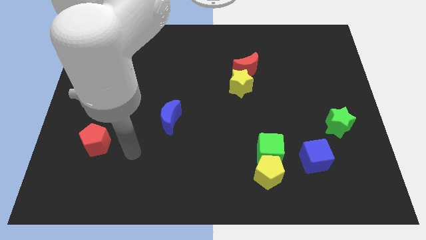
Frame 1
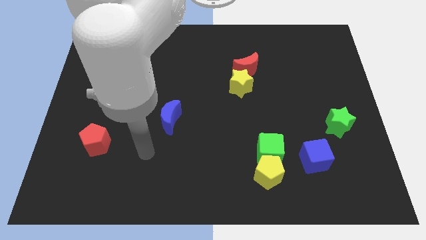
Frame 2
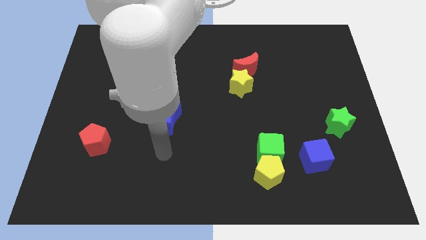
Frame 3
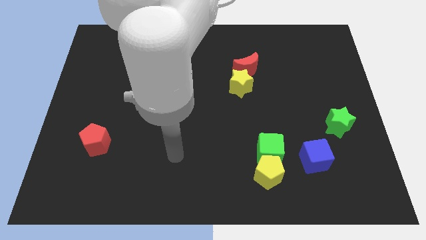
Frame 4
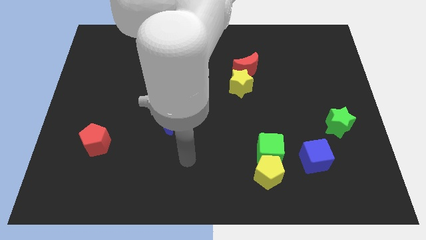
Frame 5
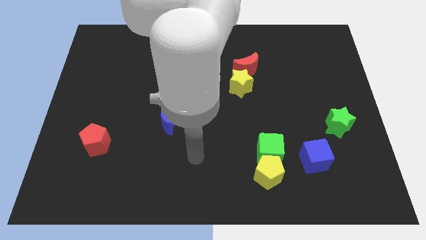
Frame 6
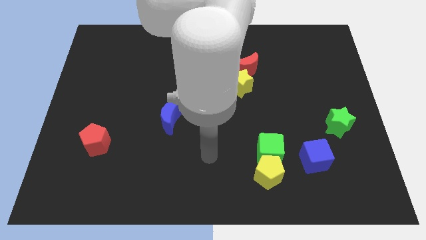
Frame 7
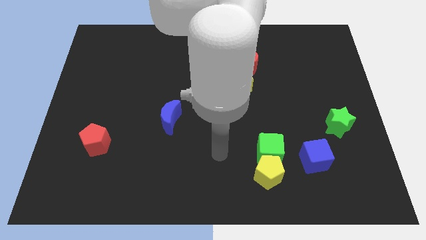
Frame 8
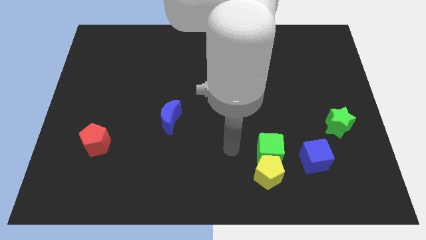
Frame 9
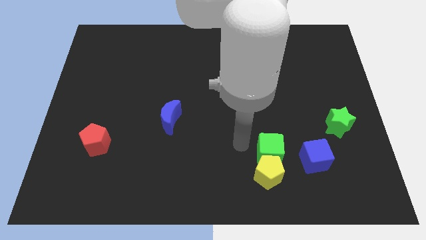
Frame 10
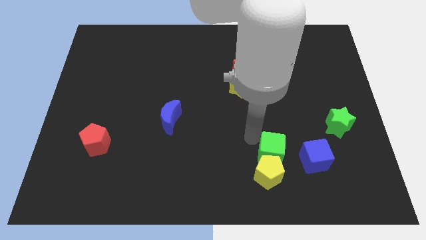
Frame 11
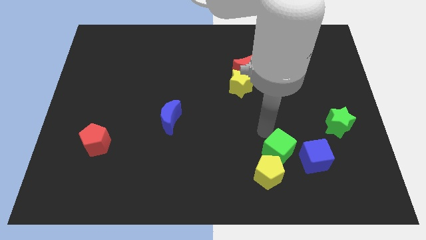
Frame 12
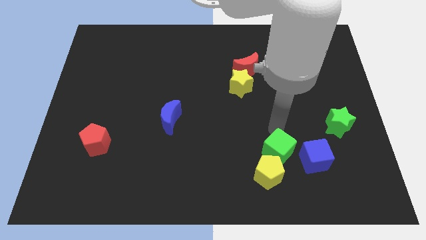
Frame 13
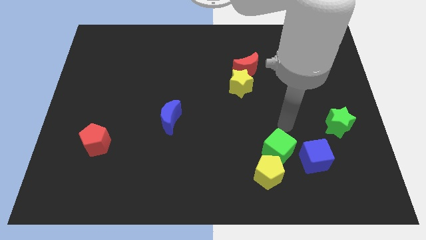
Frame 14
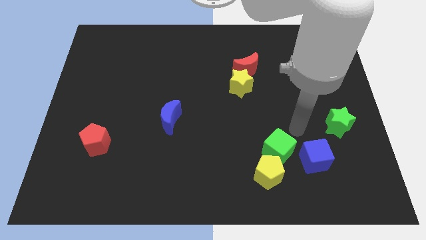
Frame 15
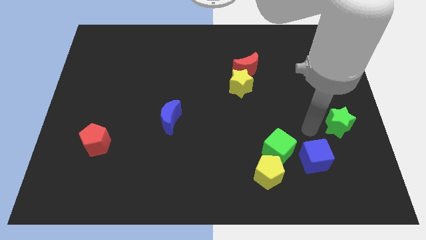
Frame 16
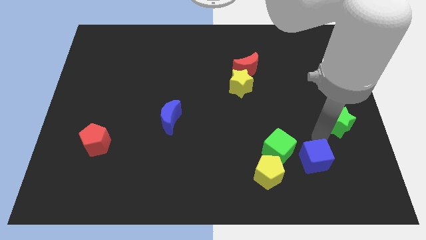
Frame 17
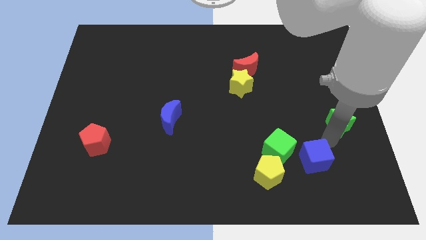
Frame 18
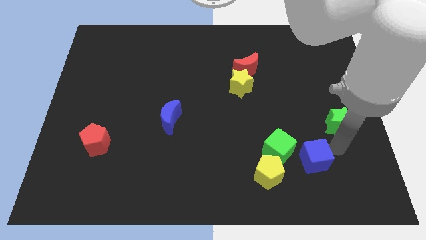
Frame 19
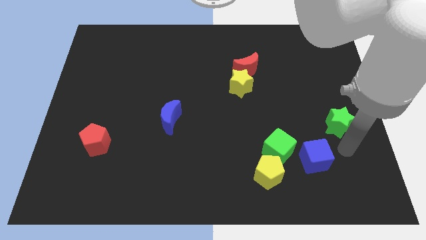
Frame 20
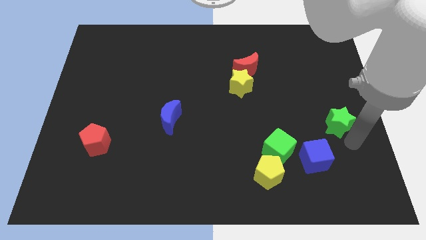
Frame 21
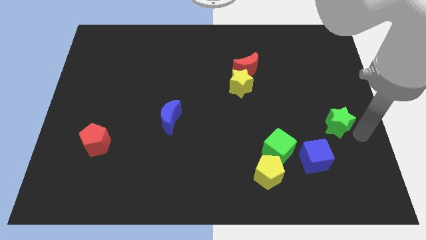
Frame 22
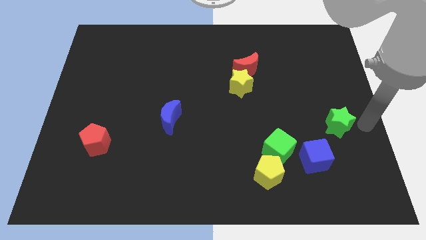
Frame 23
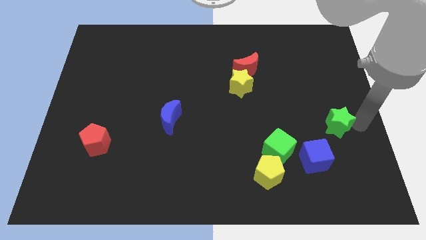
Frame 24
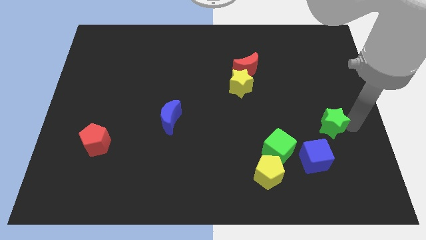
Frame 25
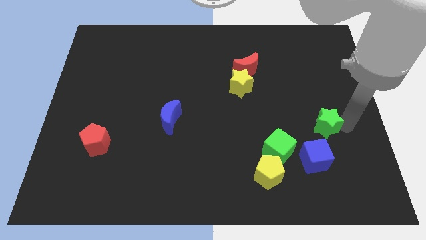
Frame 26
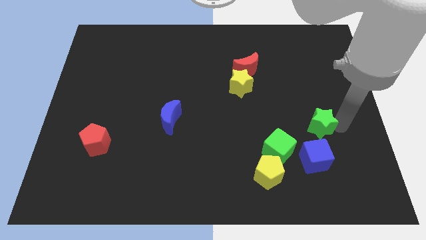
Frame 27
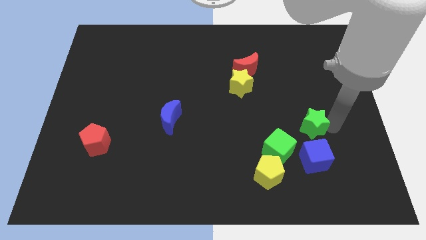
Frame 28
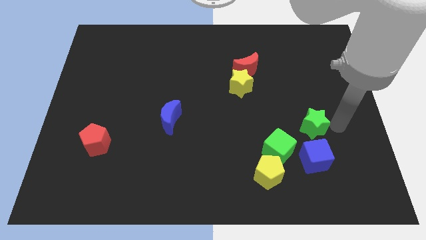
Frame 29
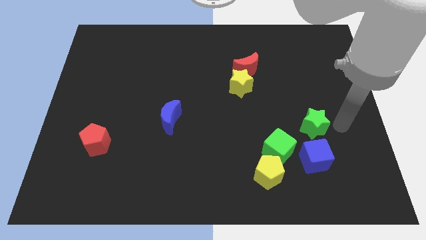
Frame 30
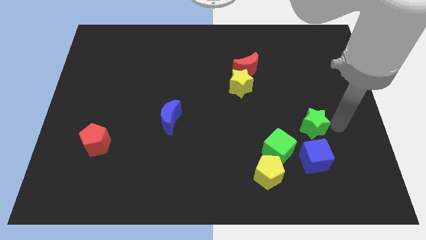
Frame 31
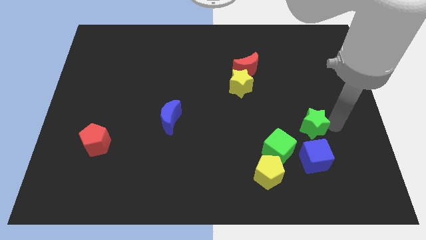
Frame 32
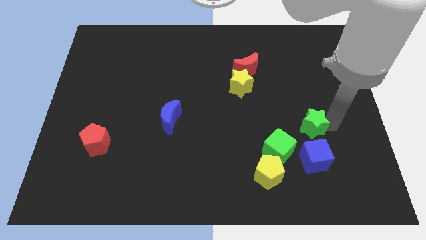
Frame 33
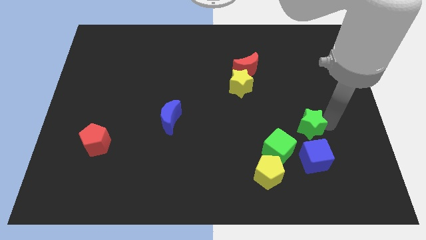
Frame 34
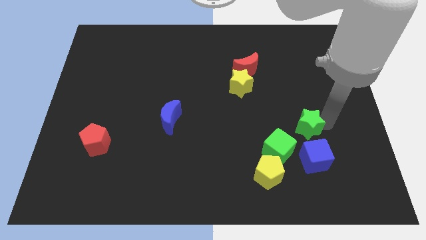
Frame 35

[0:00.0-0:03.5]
move the green star left somewhat

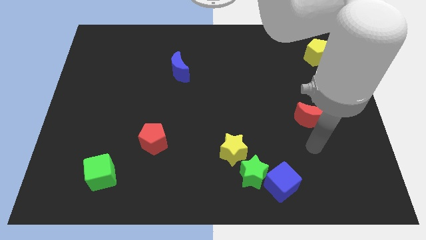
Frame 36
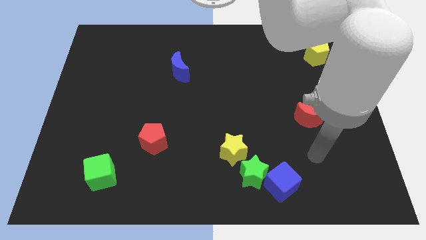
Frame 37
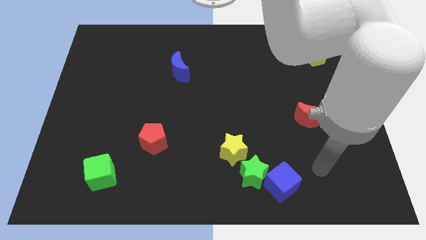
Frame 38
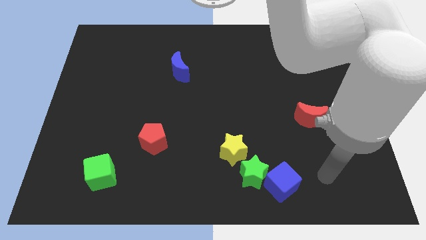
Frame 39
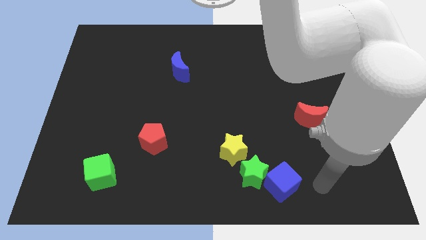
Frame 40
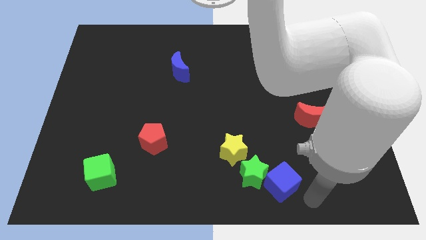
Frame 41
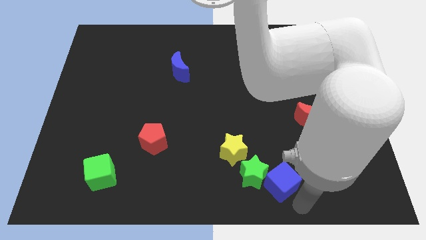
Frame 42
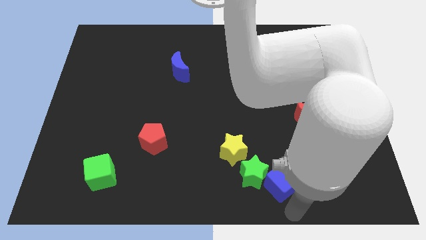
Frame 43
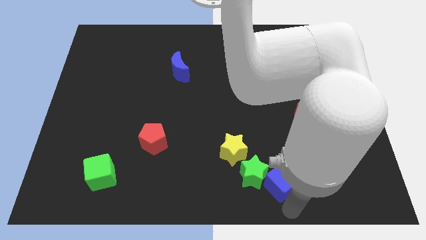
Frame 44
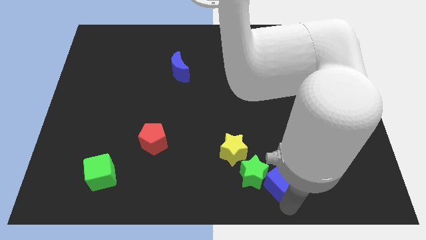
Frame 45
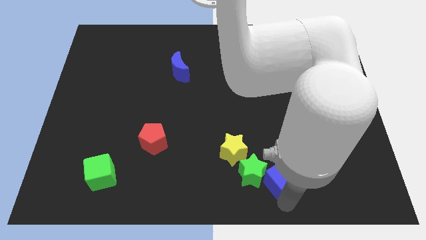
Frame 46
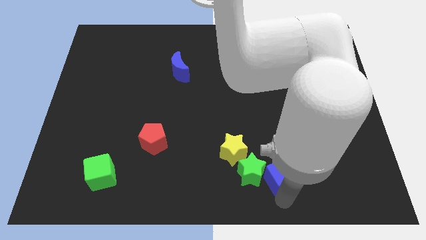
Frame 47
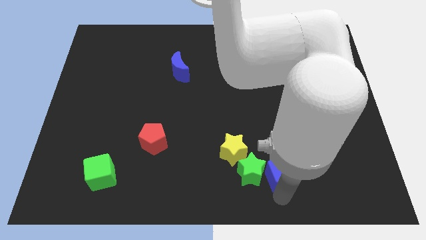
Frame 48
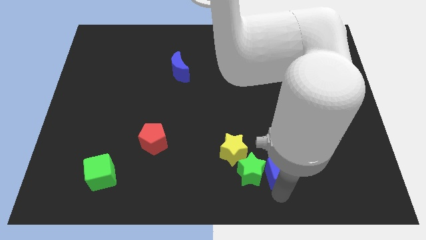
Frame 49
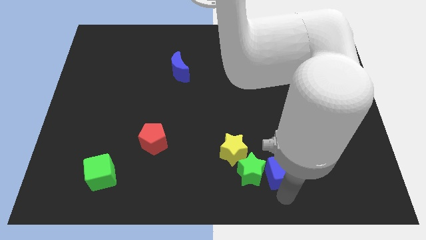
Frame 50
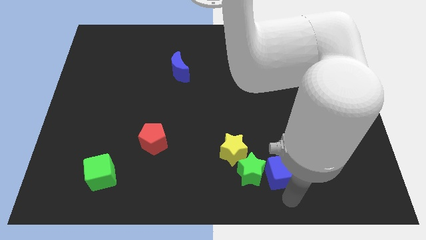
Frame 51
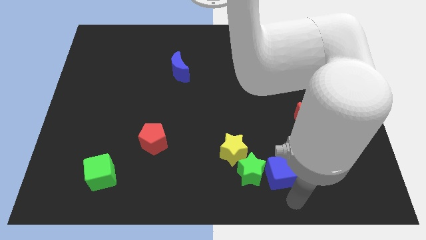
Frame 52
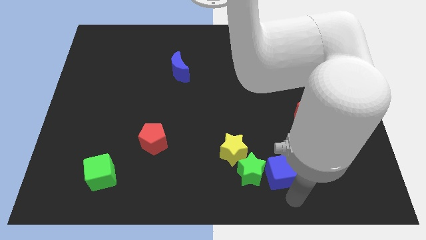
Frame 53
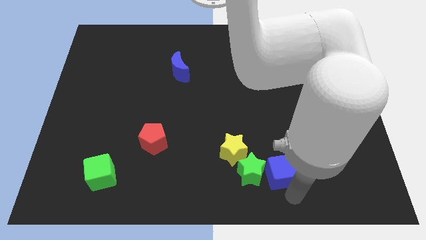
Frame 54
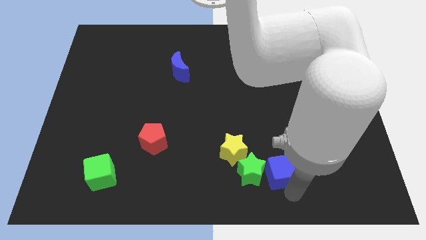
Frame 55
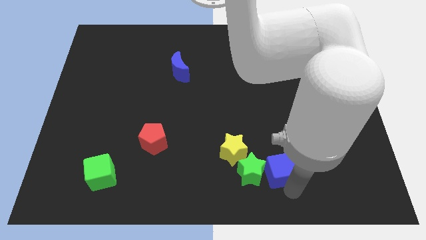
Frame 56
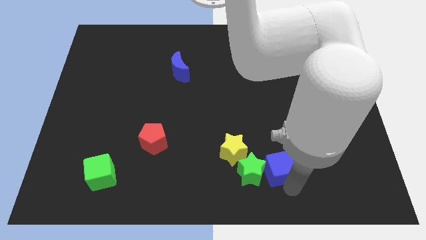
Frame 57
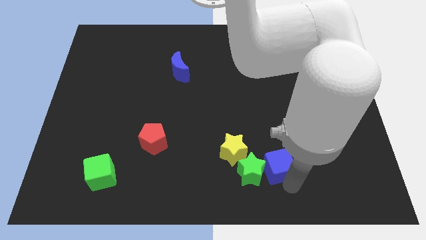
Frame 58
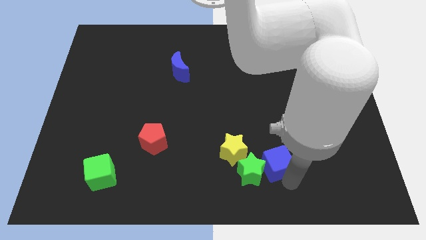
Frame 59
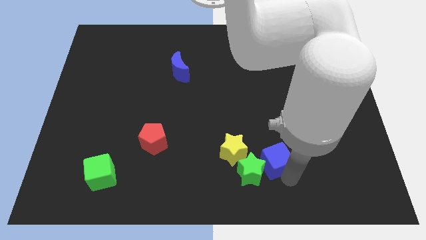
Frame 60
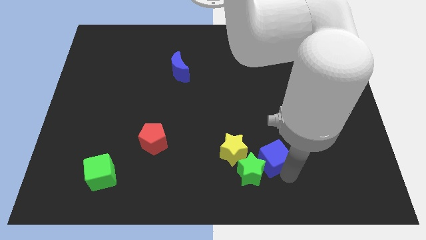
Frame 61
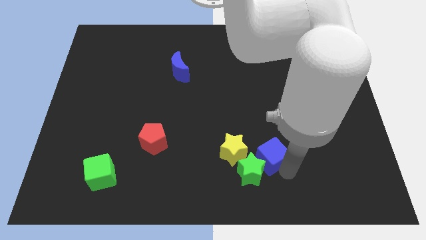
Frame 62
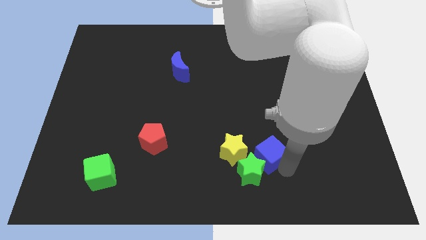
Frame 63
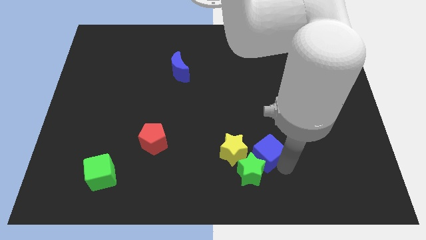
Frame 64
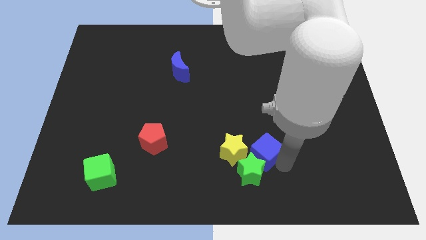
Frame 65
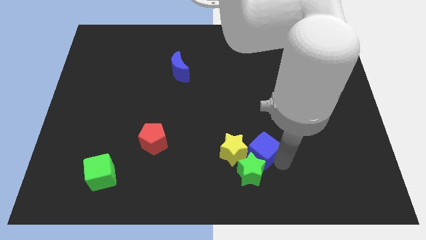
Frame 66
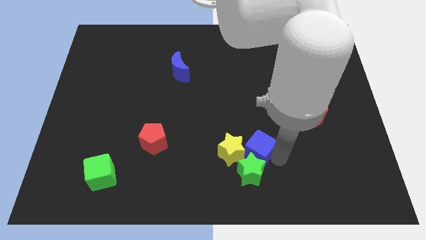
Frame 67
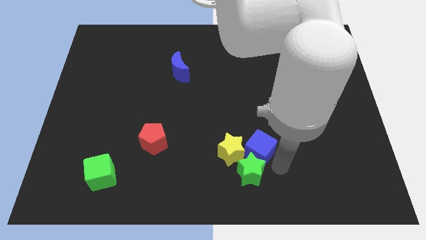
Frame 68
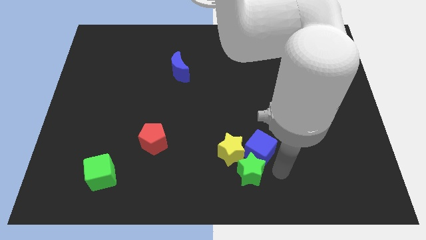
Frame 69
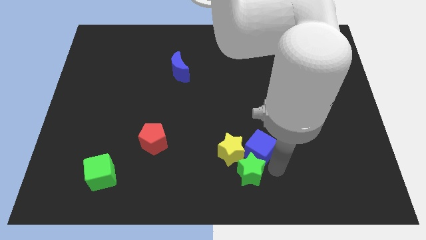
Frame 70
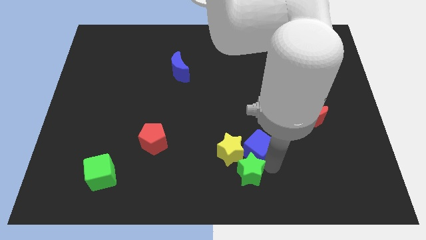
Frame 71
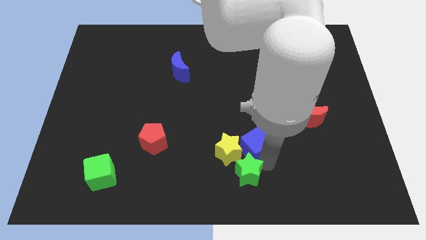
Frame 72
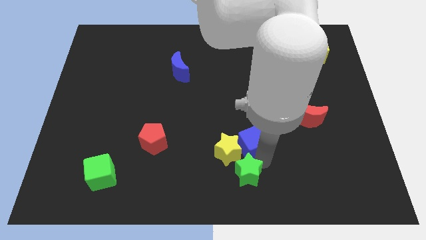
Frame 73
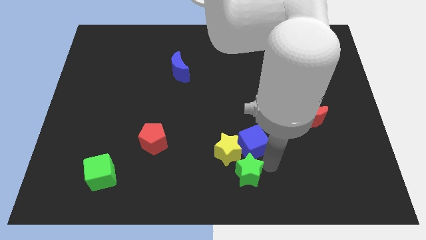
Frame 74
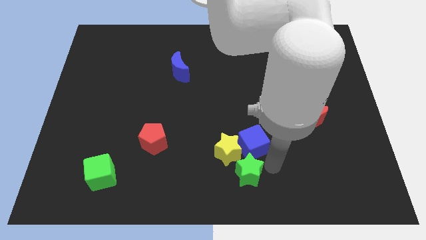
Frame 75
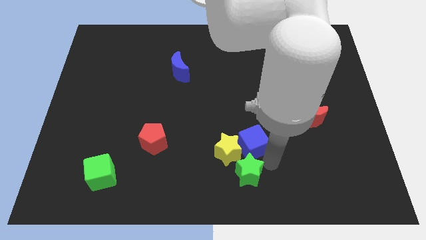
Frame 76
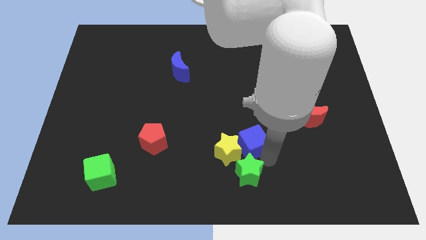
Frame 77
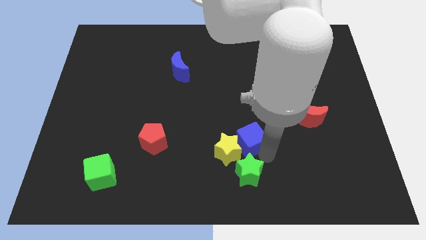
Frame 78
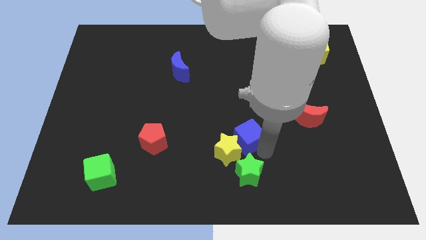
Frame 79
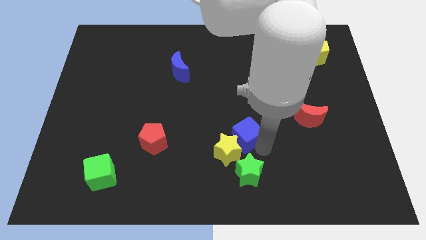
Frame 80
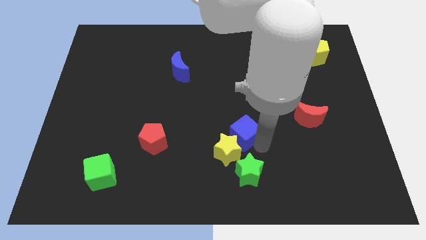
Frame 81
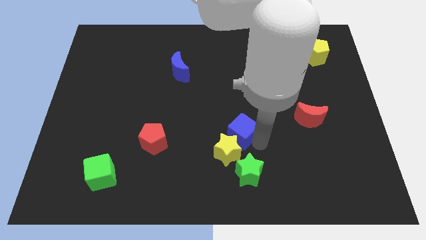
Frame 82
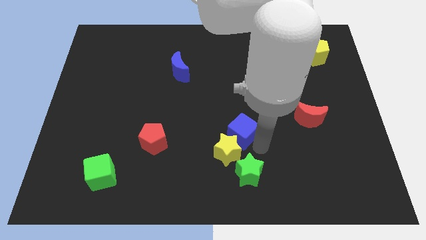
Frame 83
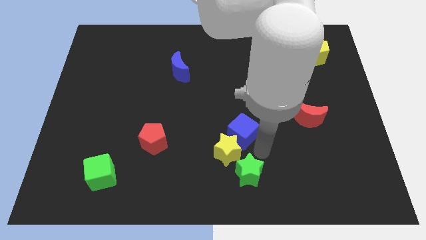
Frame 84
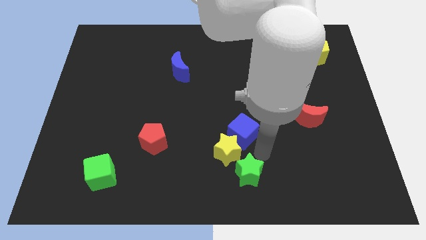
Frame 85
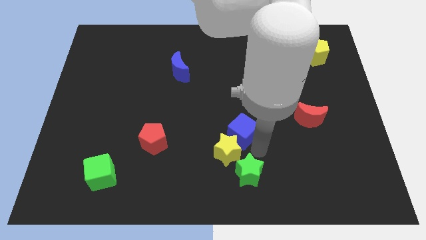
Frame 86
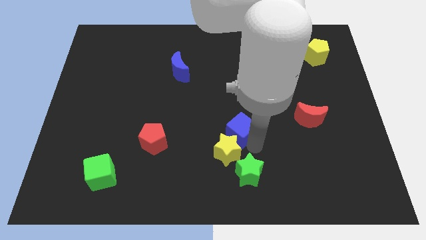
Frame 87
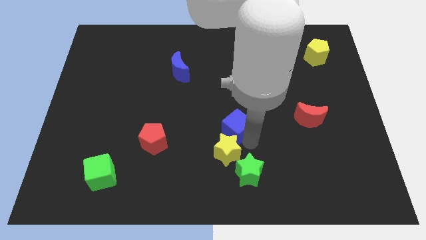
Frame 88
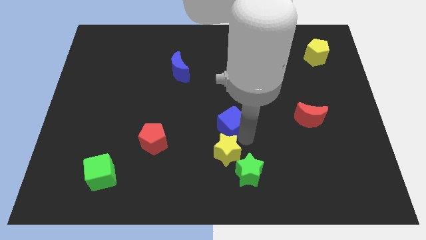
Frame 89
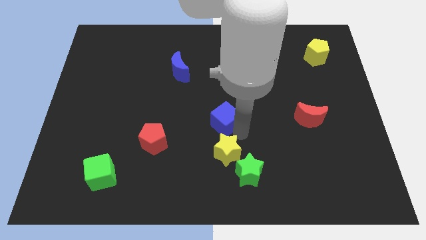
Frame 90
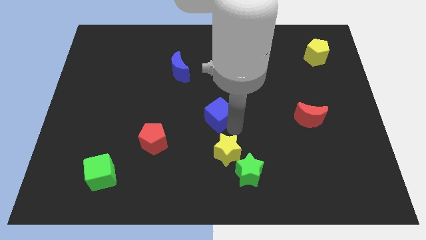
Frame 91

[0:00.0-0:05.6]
push the blue cube diagonally upwards and to the left
